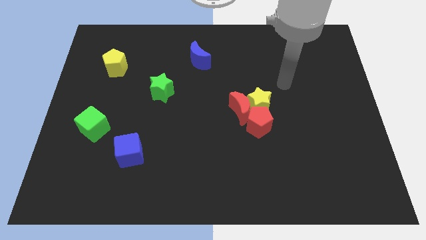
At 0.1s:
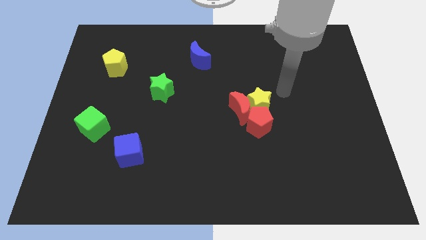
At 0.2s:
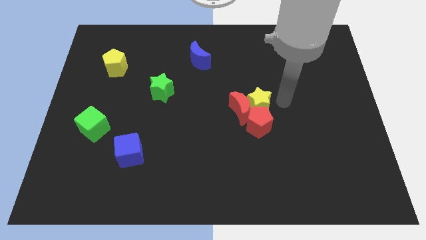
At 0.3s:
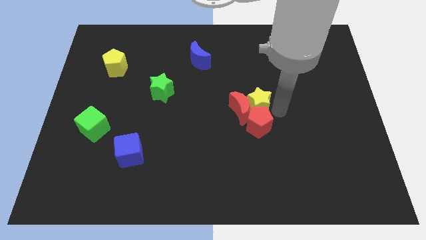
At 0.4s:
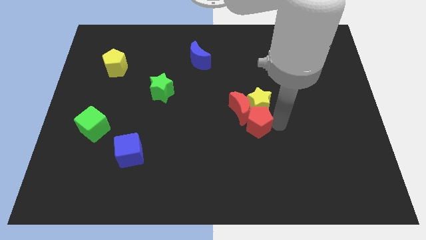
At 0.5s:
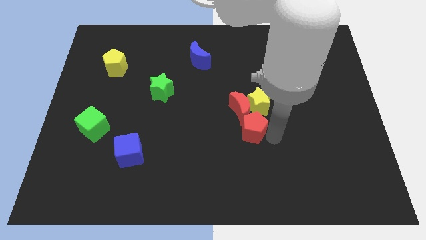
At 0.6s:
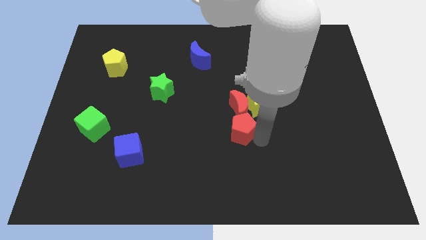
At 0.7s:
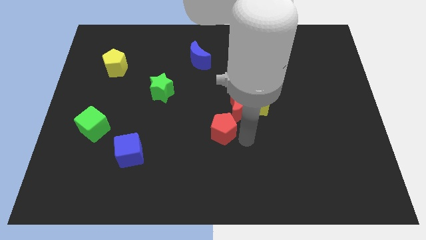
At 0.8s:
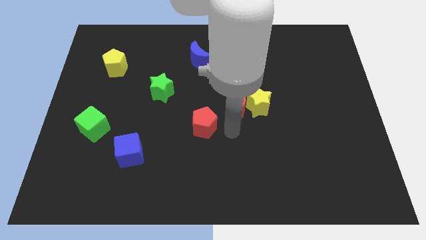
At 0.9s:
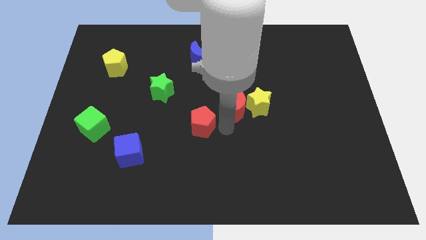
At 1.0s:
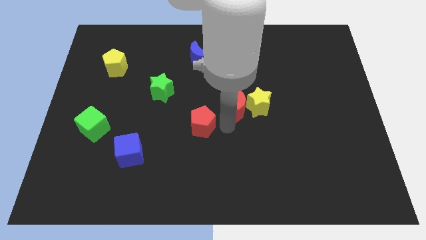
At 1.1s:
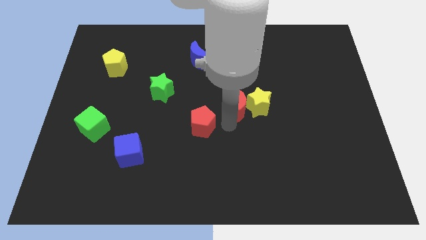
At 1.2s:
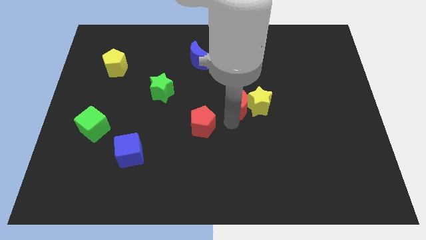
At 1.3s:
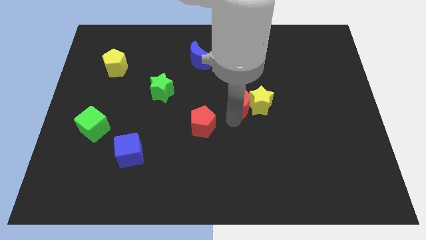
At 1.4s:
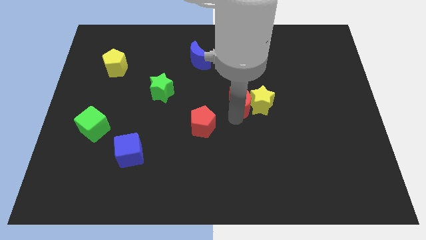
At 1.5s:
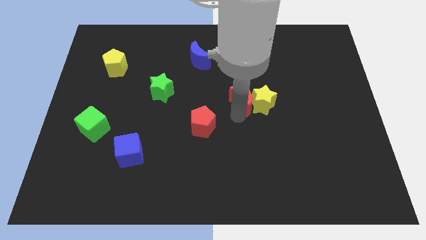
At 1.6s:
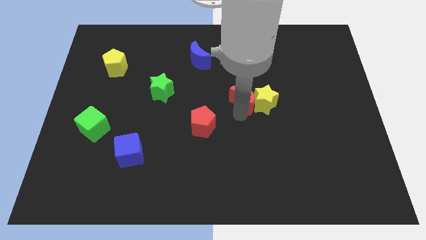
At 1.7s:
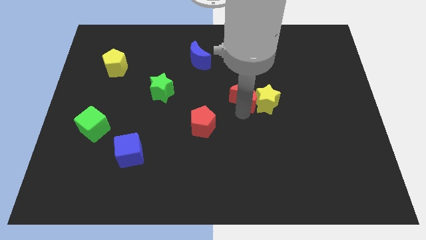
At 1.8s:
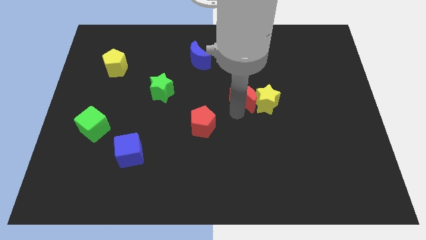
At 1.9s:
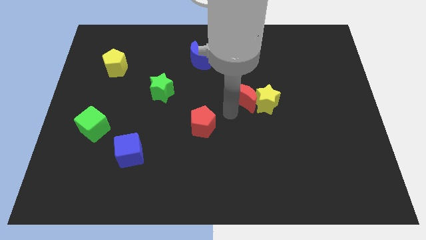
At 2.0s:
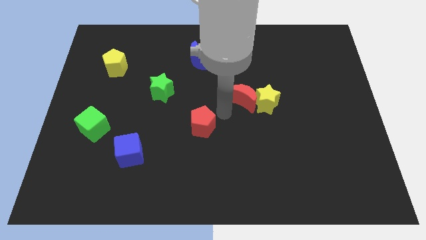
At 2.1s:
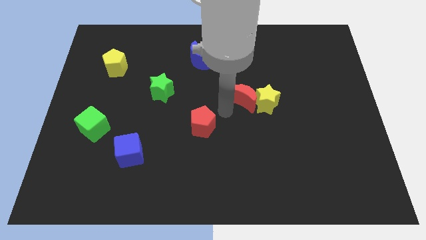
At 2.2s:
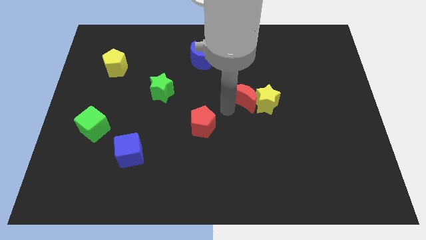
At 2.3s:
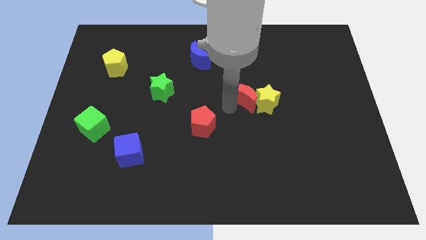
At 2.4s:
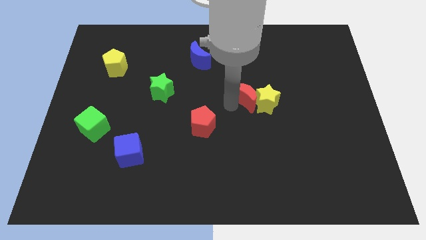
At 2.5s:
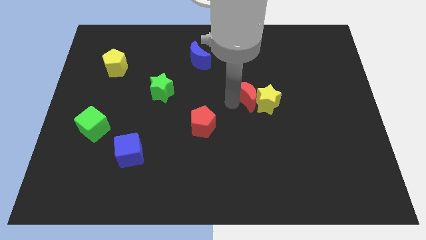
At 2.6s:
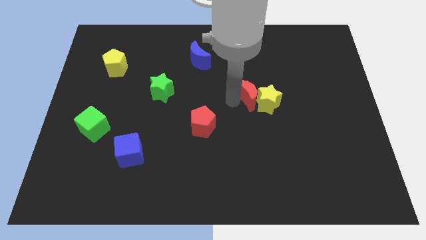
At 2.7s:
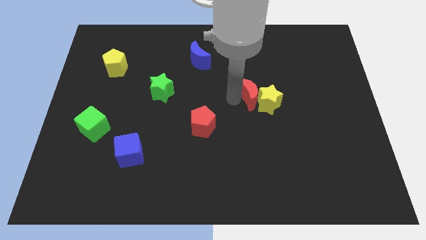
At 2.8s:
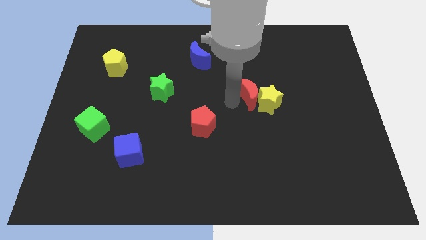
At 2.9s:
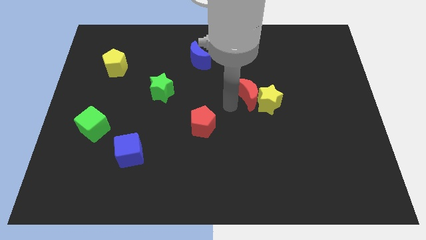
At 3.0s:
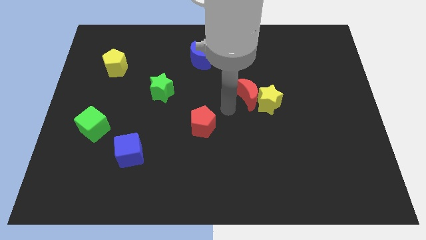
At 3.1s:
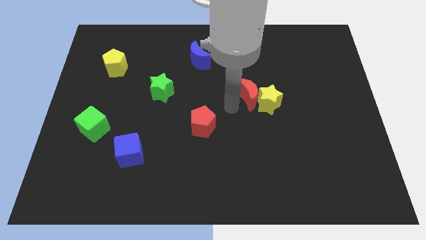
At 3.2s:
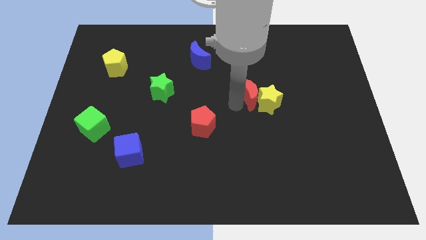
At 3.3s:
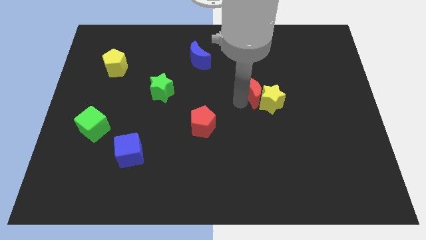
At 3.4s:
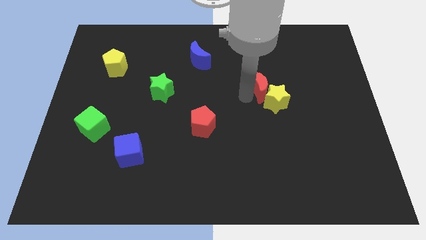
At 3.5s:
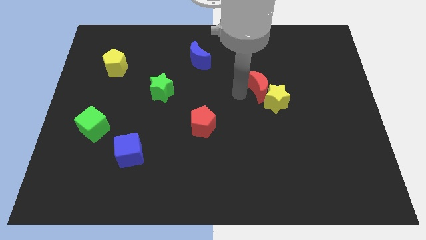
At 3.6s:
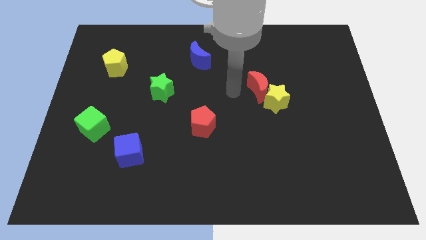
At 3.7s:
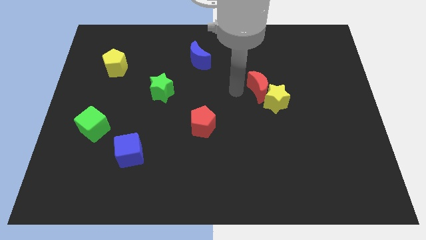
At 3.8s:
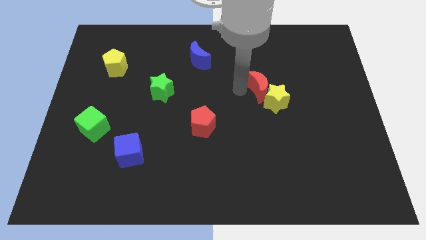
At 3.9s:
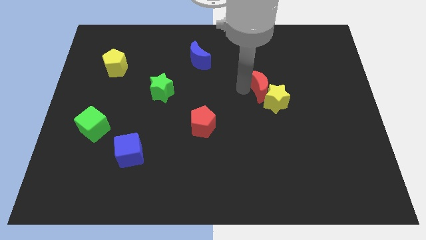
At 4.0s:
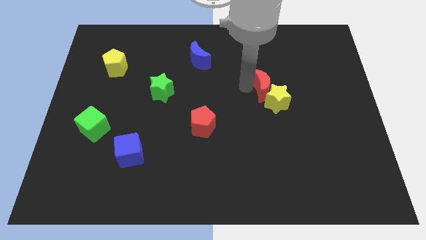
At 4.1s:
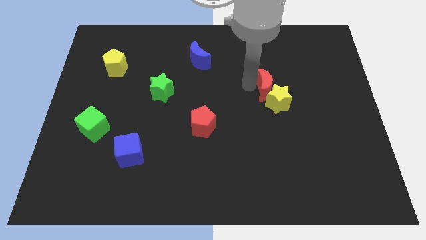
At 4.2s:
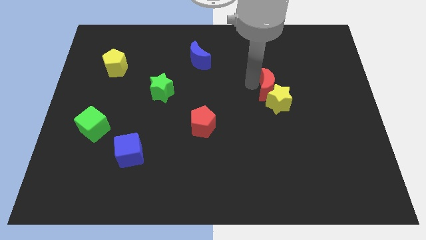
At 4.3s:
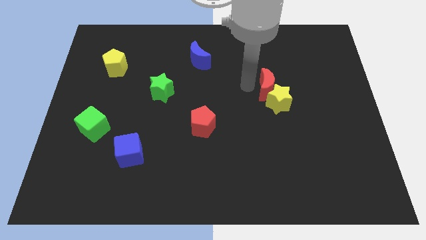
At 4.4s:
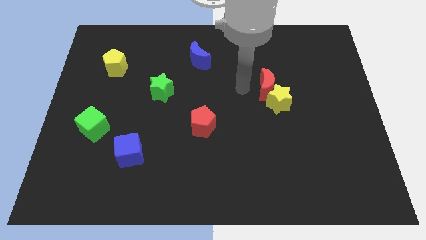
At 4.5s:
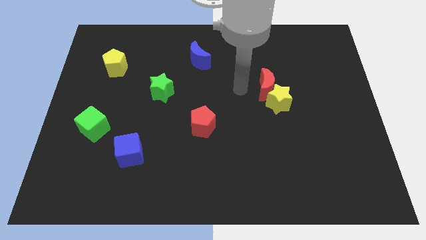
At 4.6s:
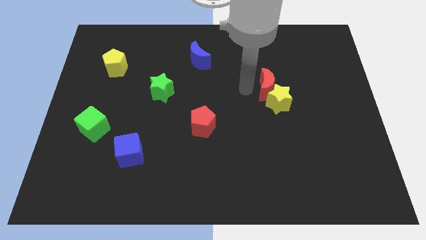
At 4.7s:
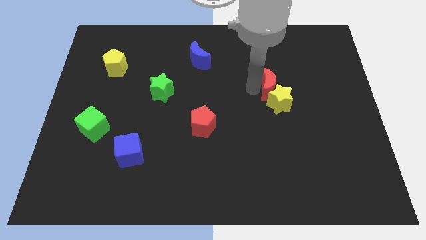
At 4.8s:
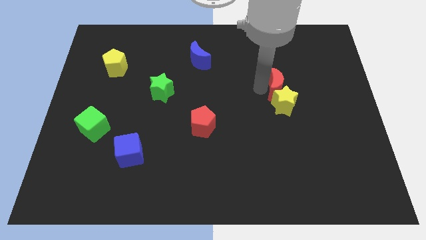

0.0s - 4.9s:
slide the red moon diagonally up and to the right of the yellow star

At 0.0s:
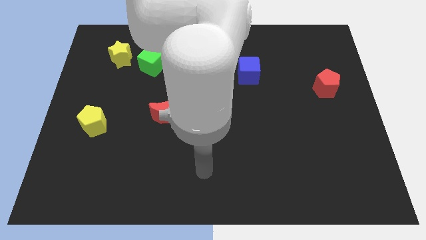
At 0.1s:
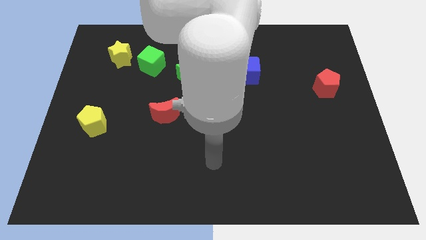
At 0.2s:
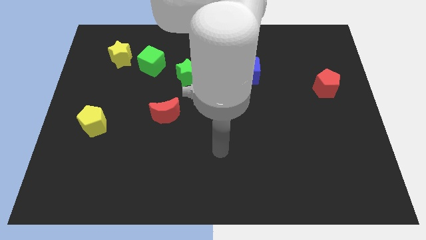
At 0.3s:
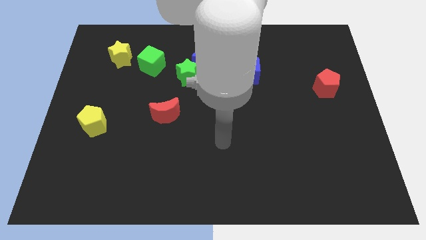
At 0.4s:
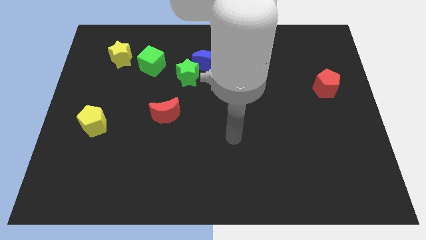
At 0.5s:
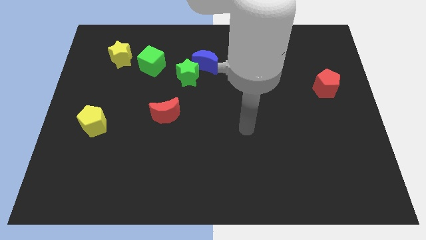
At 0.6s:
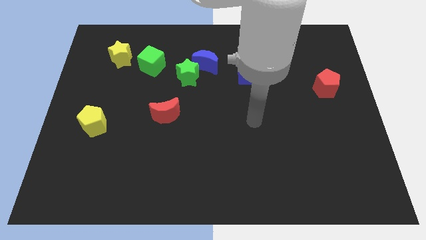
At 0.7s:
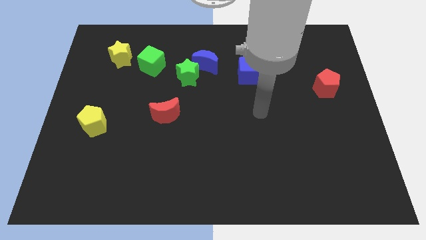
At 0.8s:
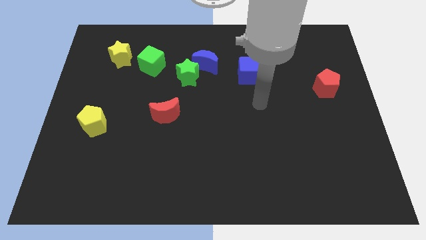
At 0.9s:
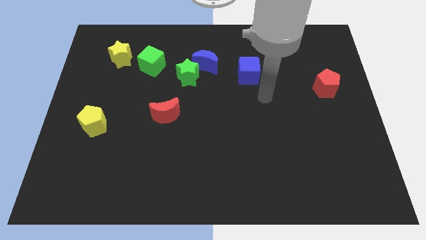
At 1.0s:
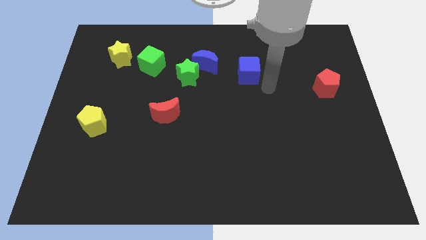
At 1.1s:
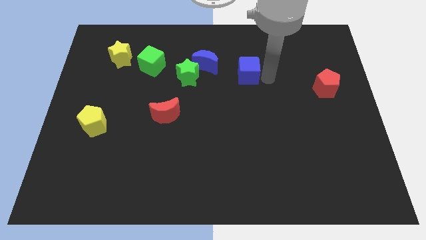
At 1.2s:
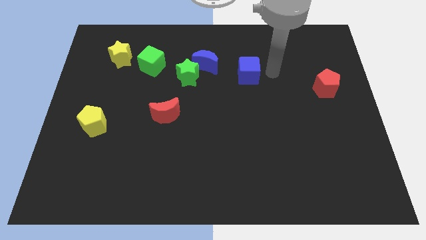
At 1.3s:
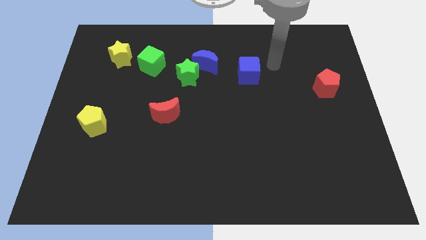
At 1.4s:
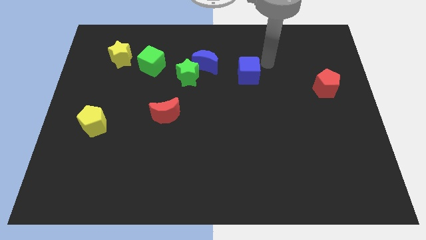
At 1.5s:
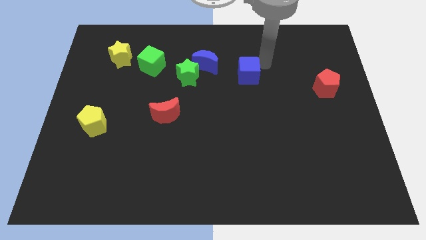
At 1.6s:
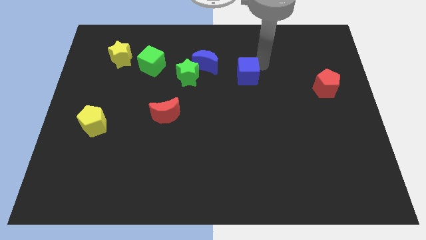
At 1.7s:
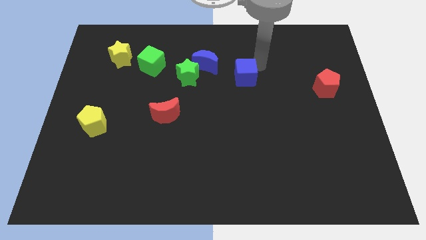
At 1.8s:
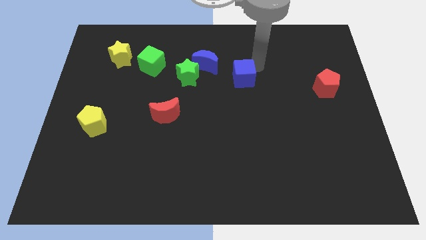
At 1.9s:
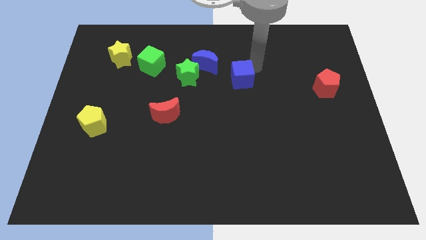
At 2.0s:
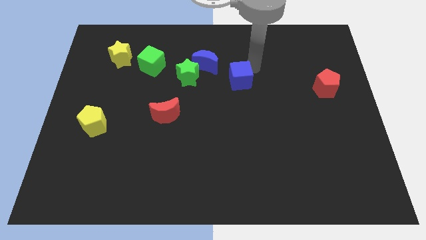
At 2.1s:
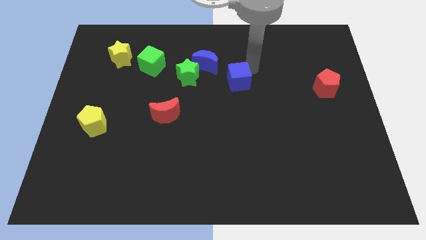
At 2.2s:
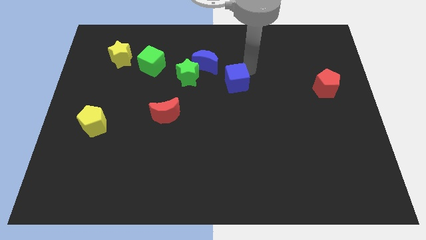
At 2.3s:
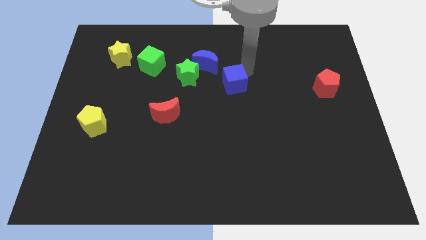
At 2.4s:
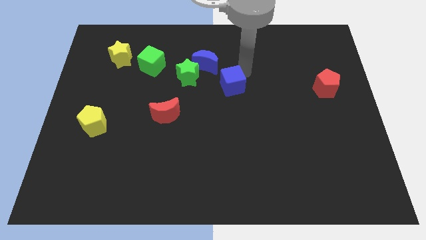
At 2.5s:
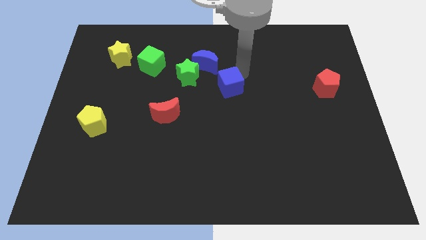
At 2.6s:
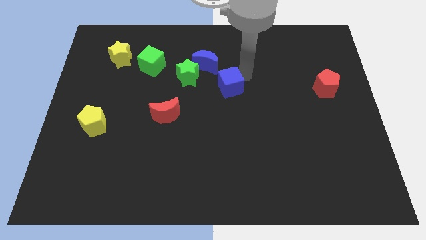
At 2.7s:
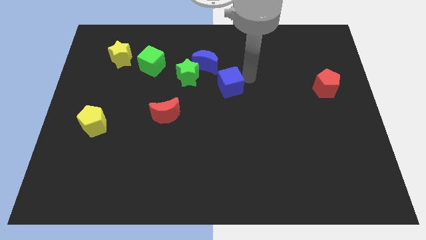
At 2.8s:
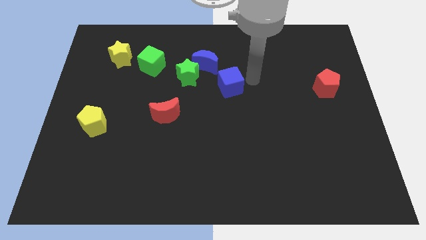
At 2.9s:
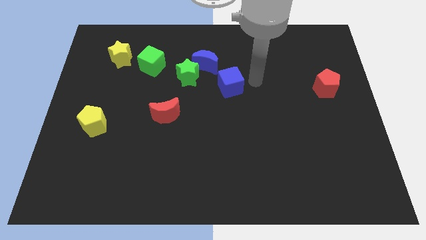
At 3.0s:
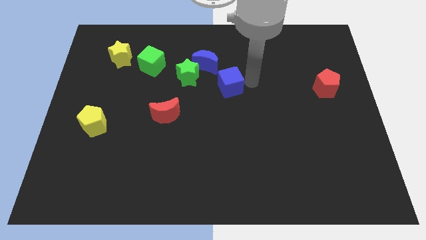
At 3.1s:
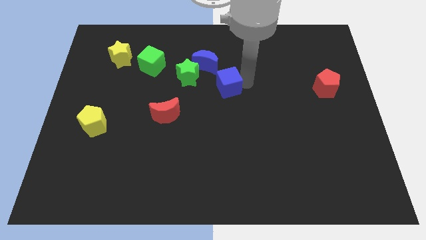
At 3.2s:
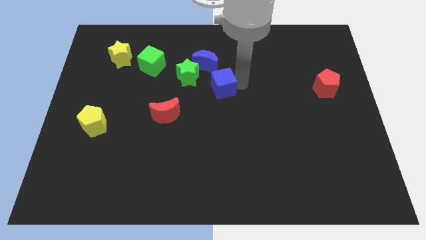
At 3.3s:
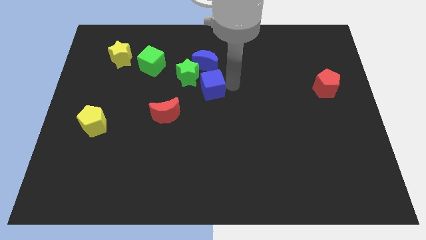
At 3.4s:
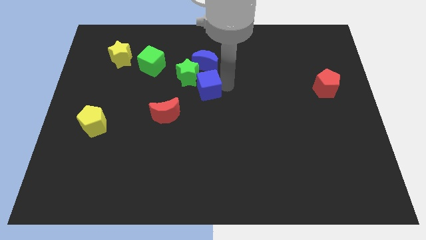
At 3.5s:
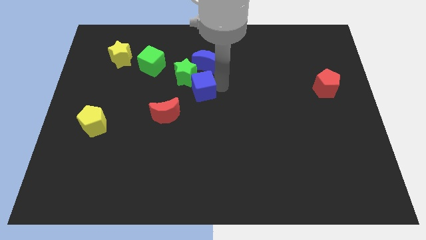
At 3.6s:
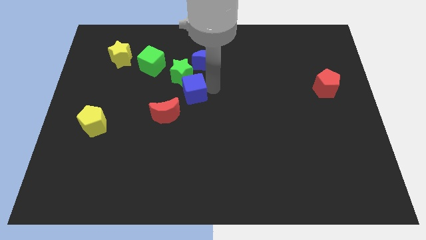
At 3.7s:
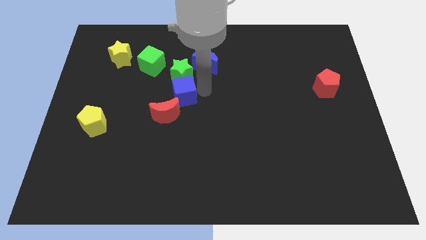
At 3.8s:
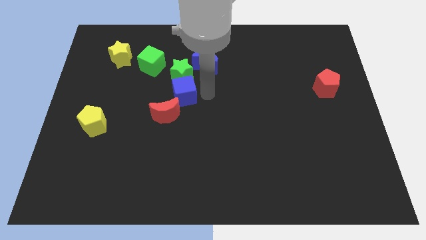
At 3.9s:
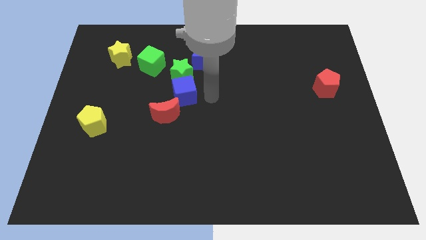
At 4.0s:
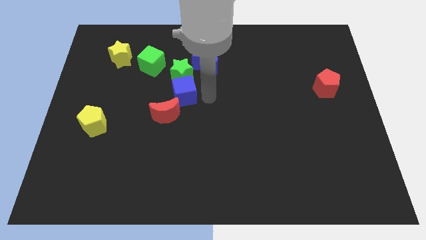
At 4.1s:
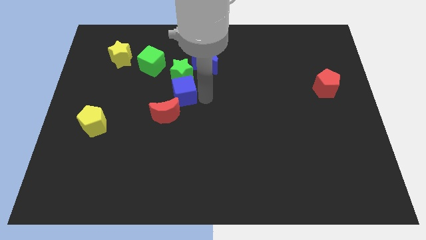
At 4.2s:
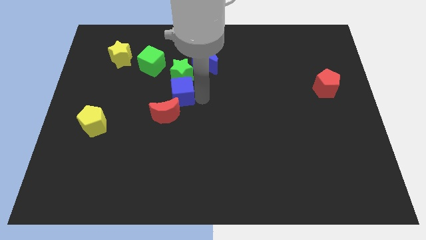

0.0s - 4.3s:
slide the blue cube diagonally down and to the left of the green star
